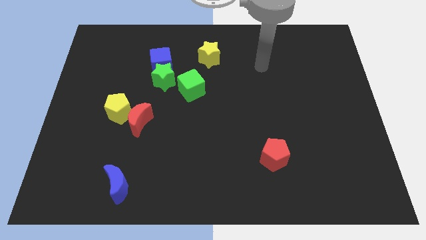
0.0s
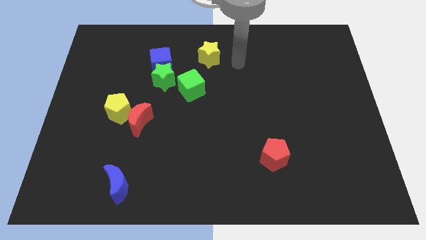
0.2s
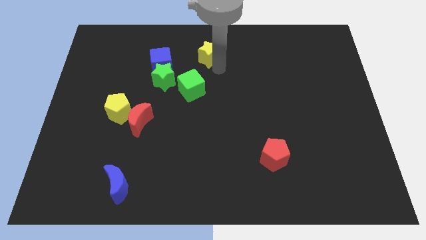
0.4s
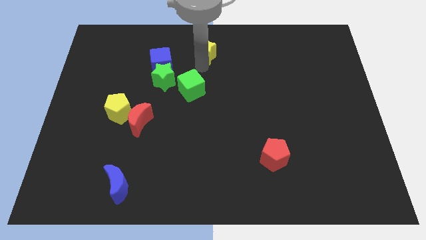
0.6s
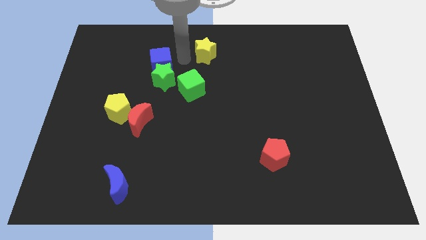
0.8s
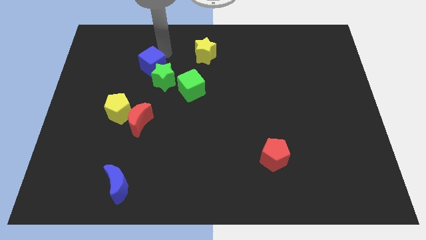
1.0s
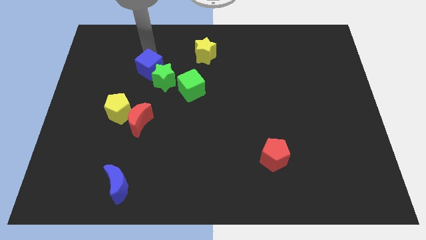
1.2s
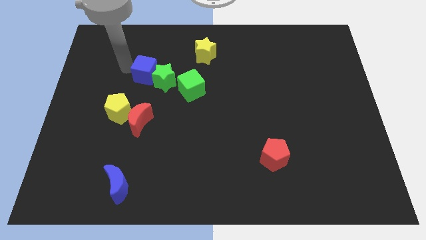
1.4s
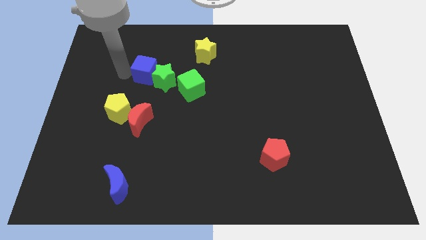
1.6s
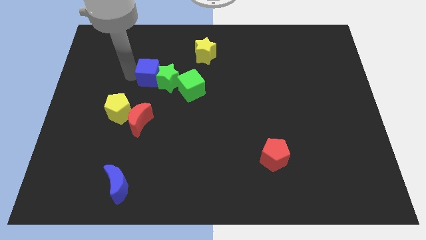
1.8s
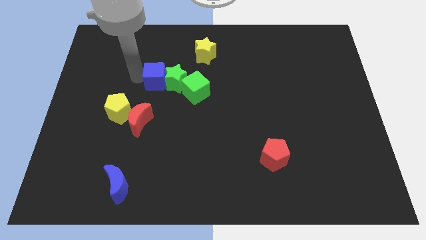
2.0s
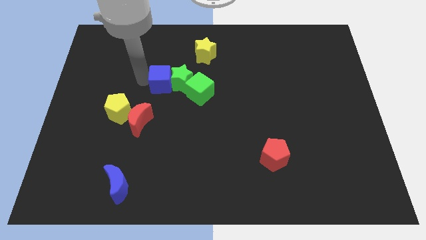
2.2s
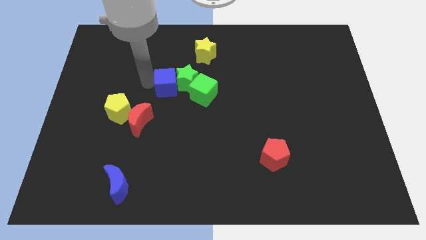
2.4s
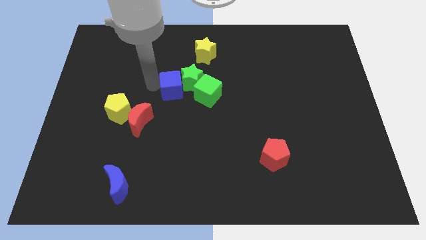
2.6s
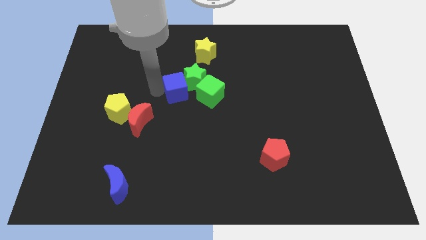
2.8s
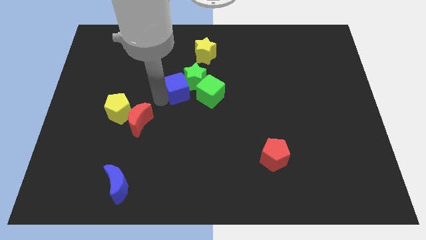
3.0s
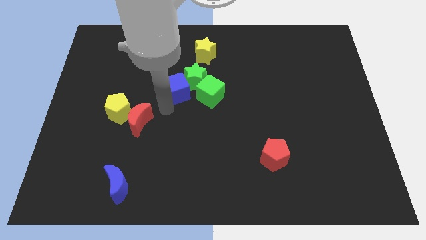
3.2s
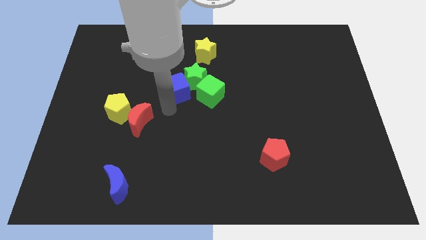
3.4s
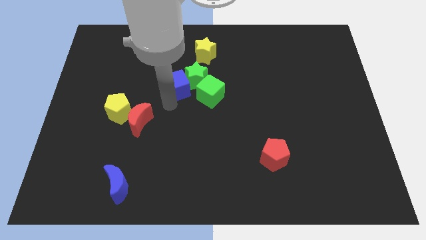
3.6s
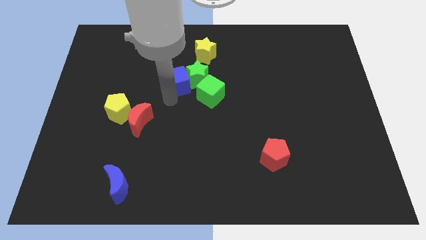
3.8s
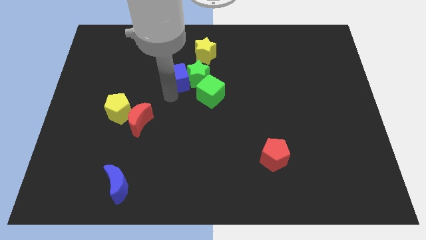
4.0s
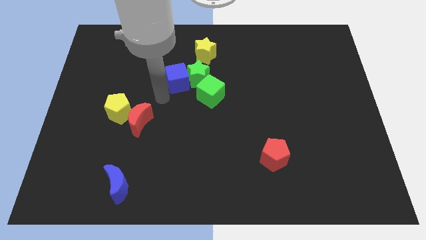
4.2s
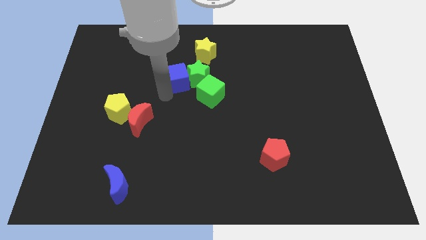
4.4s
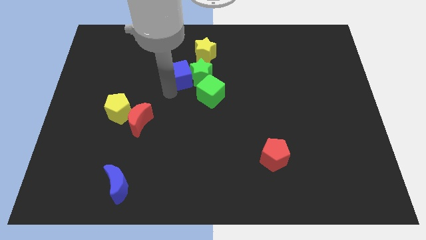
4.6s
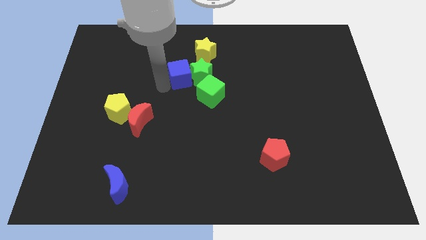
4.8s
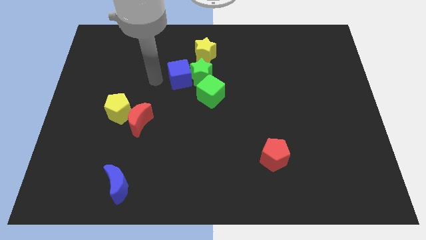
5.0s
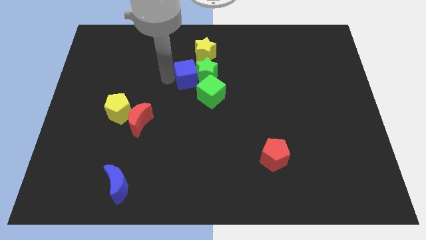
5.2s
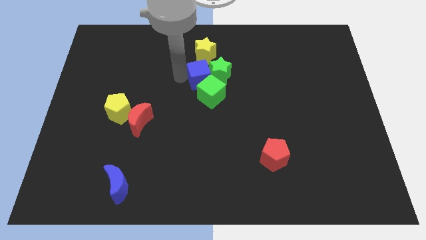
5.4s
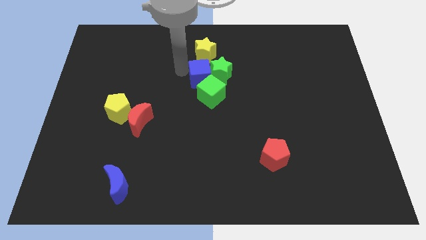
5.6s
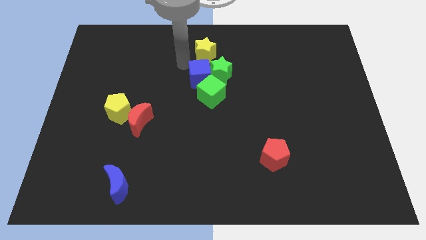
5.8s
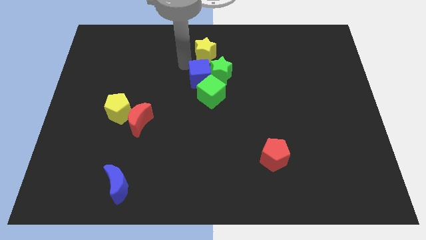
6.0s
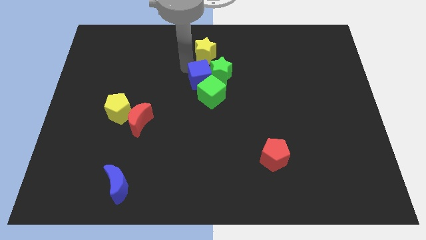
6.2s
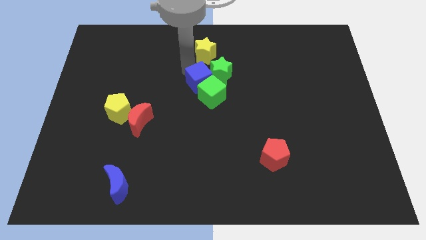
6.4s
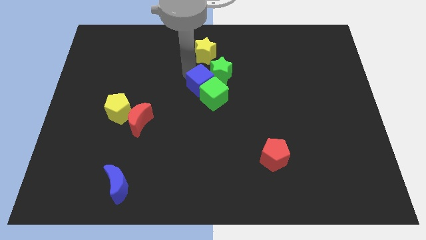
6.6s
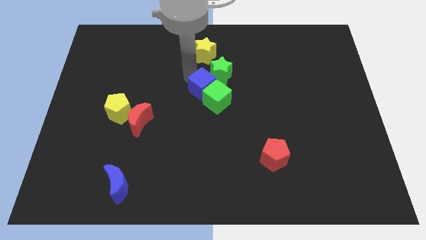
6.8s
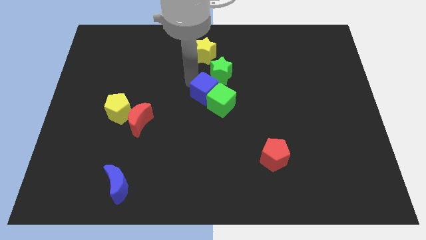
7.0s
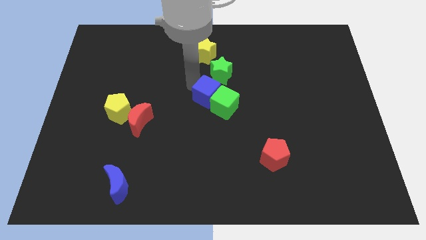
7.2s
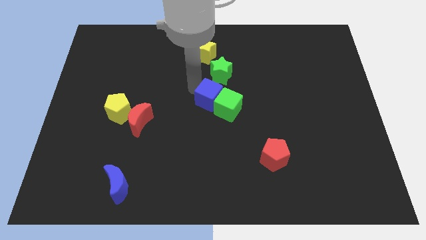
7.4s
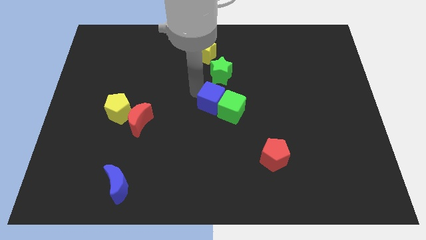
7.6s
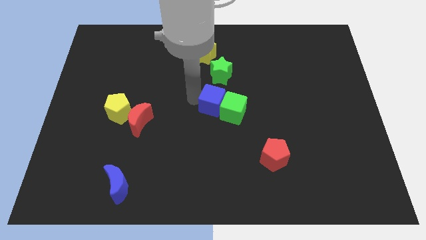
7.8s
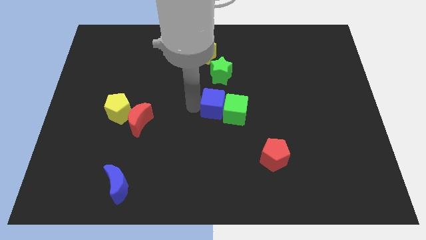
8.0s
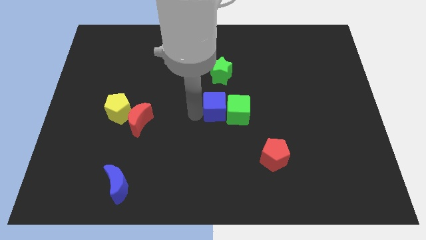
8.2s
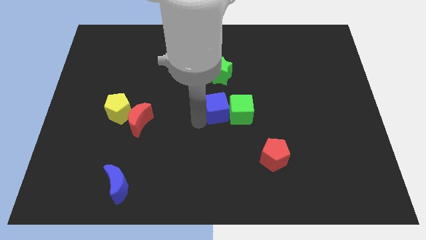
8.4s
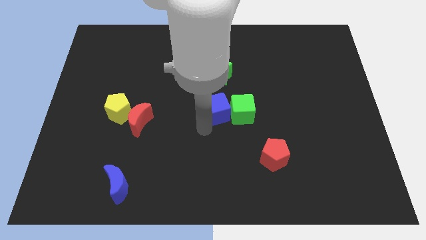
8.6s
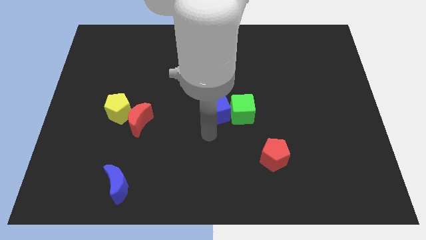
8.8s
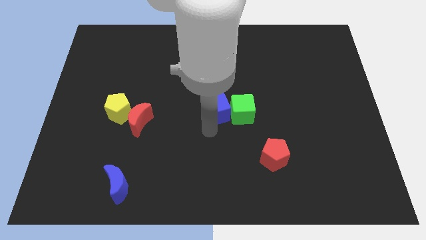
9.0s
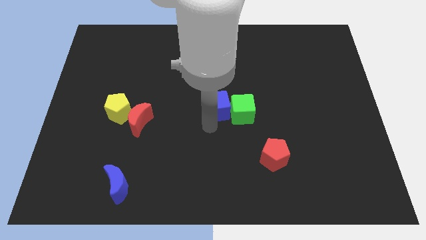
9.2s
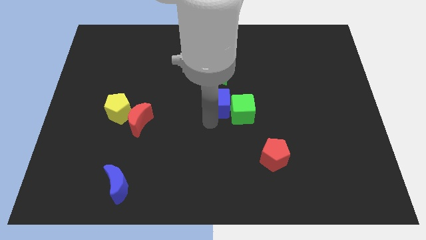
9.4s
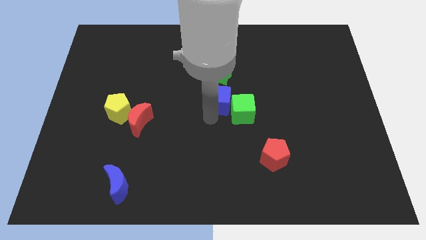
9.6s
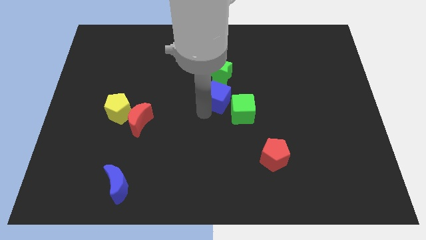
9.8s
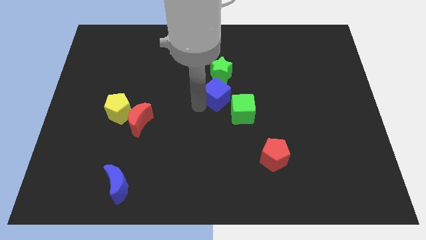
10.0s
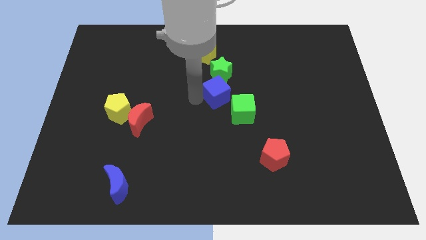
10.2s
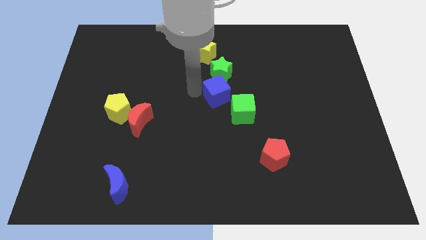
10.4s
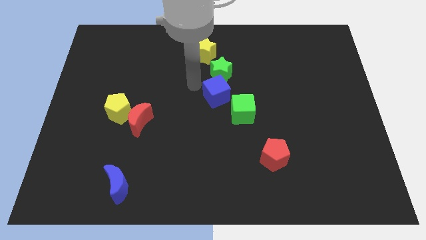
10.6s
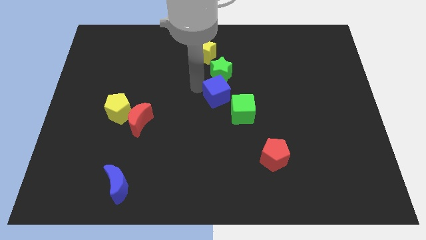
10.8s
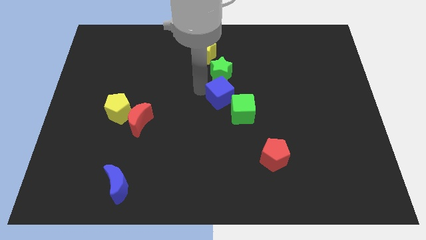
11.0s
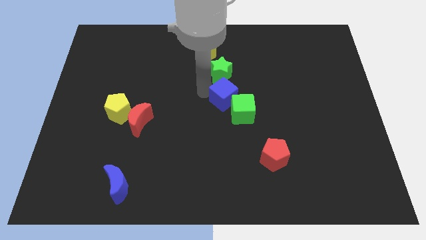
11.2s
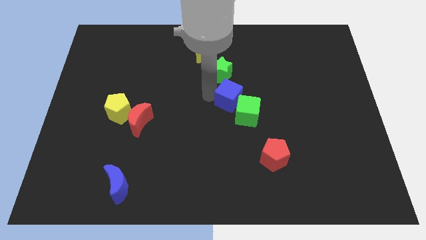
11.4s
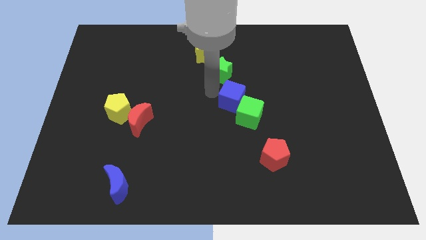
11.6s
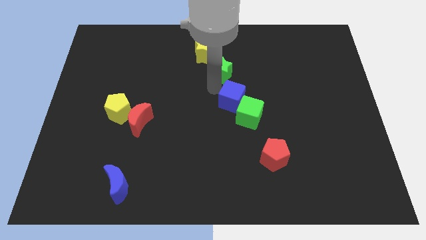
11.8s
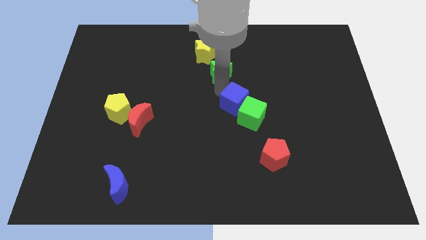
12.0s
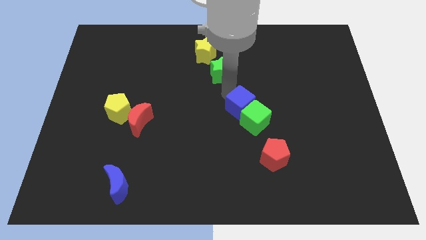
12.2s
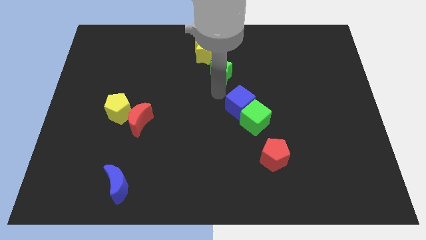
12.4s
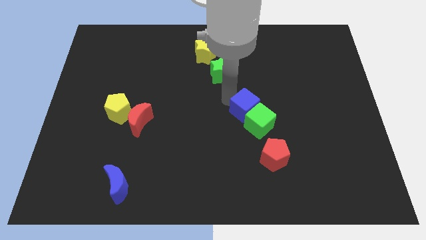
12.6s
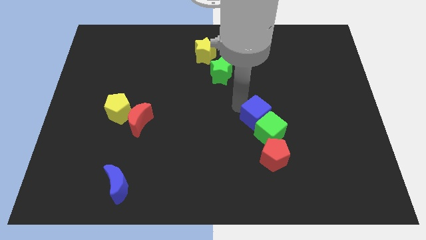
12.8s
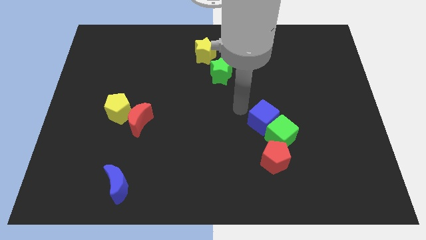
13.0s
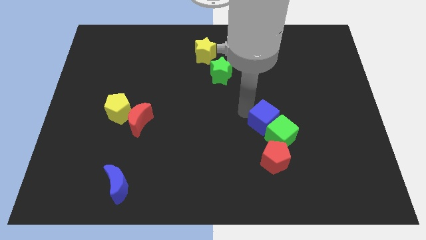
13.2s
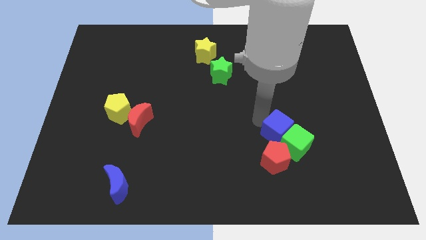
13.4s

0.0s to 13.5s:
put the blue cube diagonally up and to the right of the red pentagon

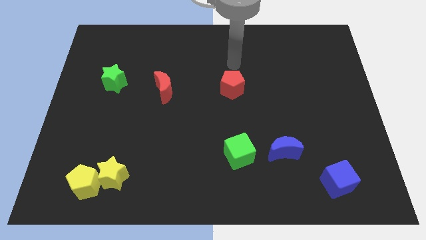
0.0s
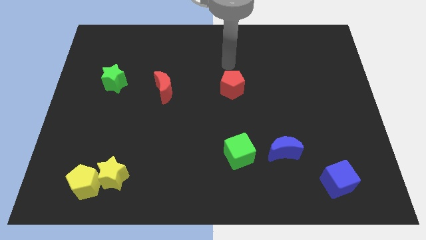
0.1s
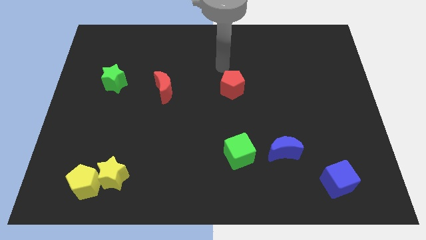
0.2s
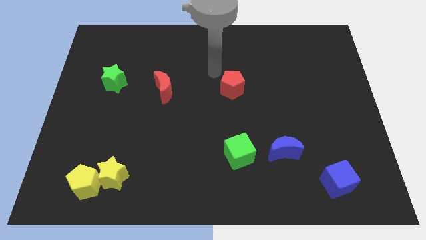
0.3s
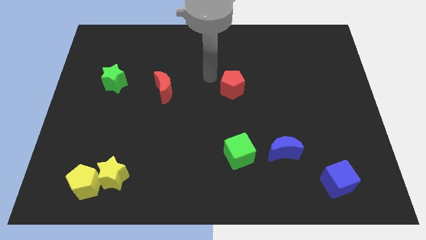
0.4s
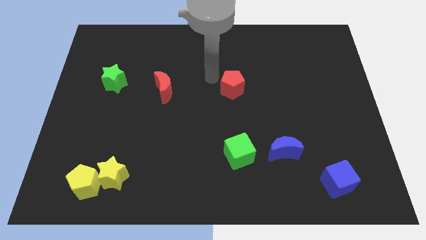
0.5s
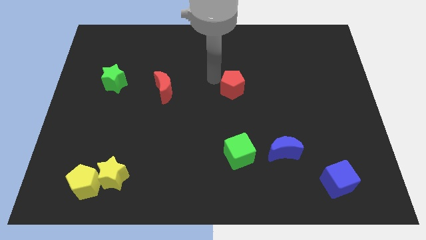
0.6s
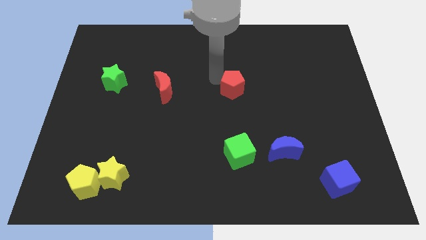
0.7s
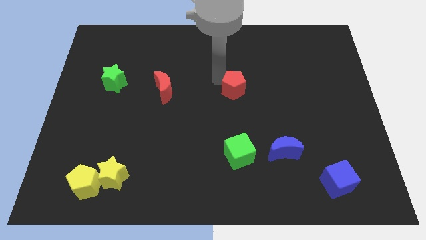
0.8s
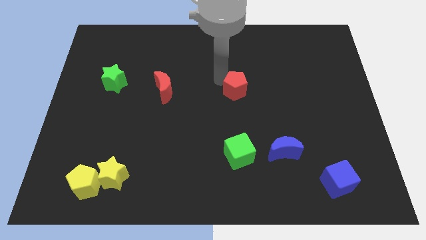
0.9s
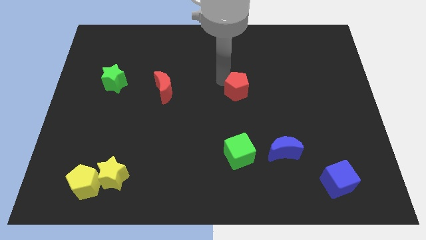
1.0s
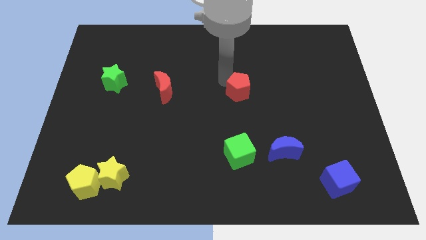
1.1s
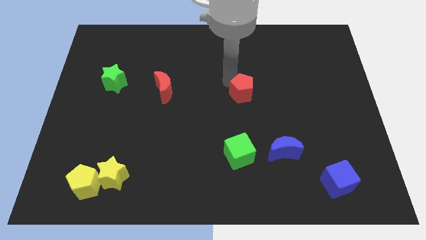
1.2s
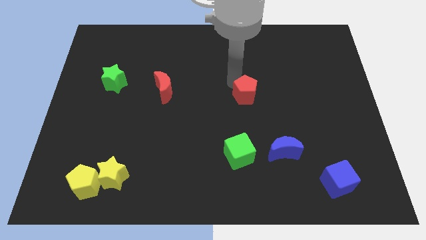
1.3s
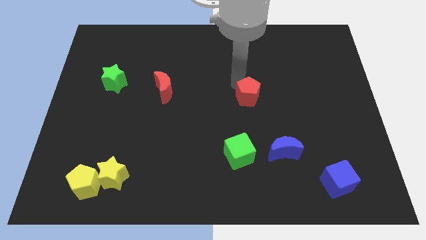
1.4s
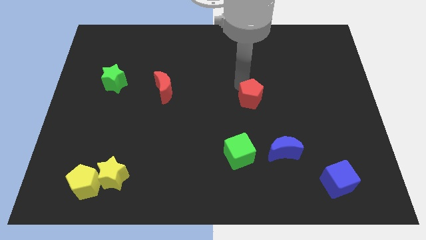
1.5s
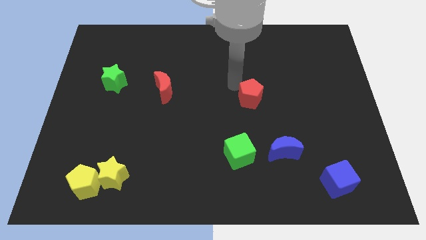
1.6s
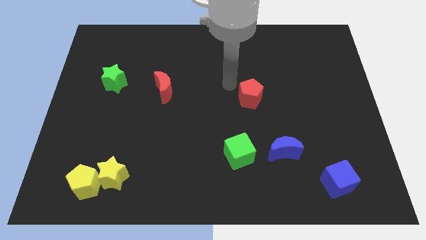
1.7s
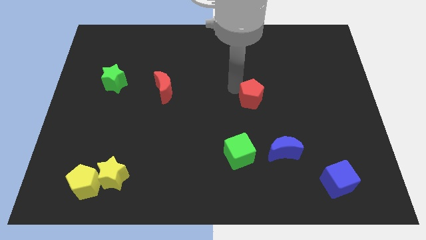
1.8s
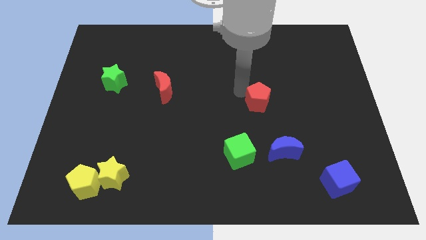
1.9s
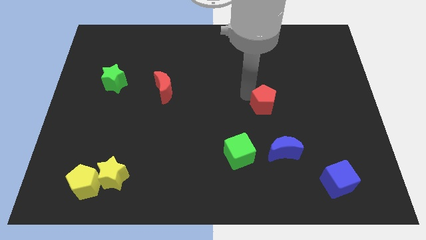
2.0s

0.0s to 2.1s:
slide the red pentagon to the top side of the blue moon
